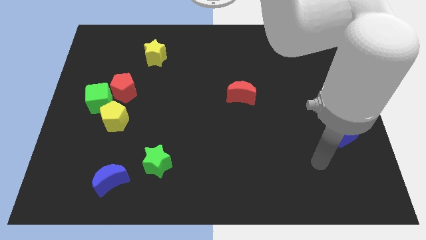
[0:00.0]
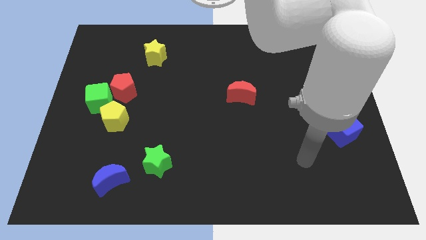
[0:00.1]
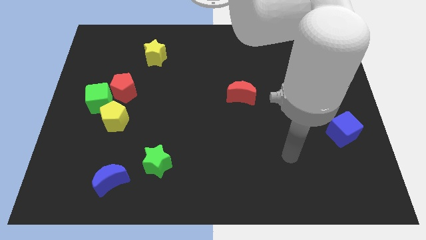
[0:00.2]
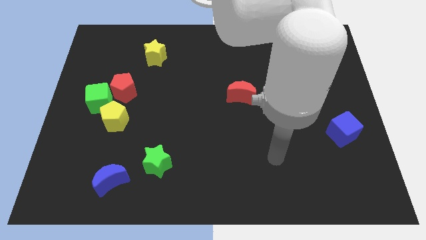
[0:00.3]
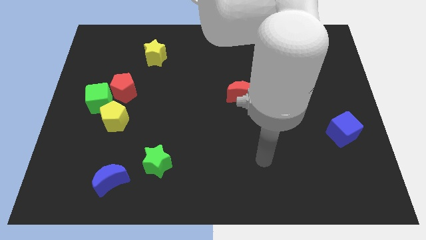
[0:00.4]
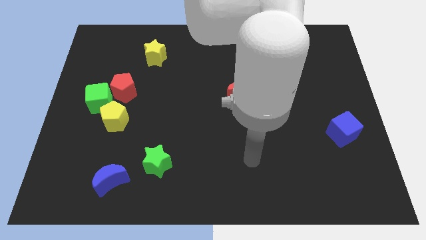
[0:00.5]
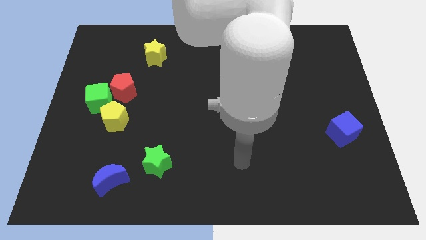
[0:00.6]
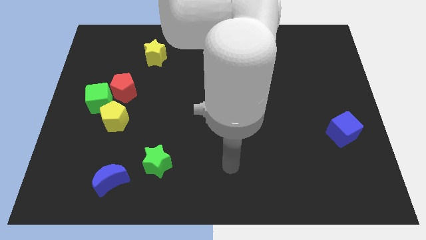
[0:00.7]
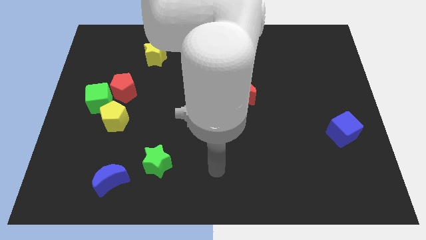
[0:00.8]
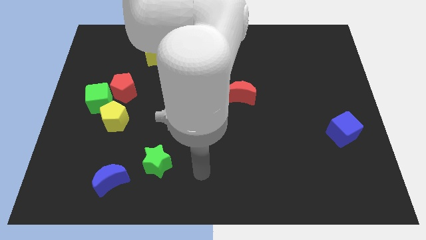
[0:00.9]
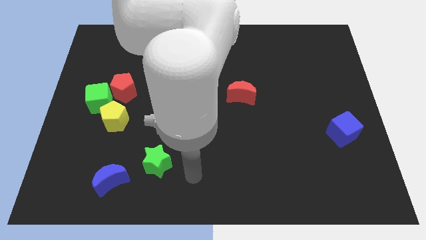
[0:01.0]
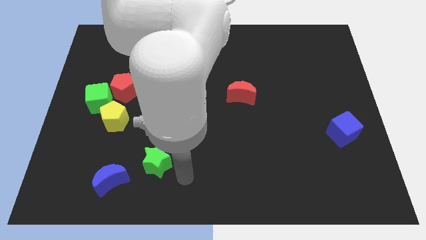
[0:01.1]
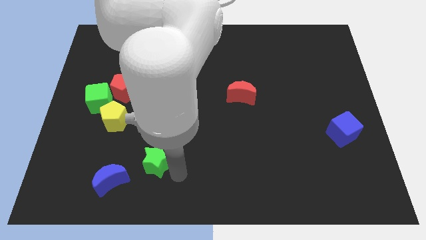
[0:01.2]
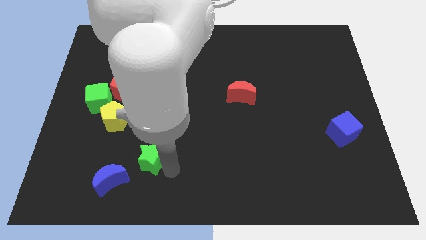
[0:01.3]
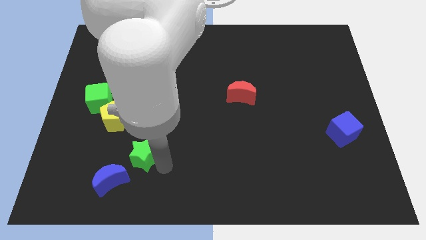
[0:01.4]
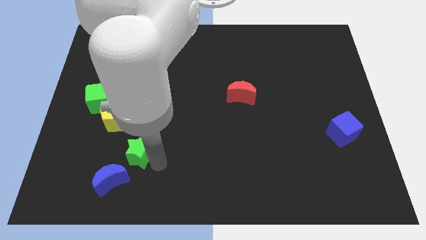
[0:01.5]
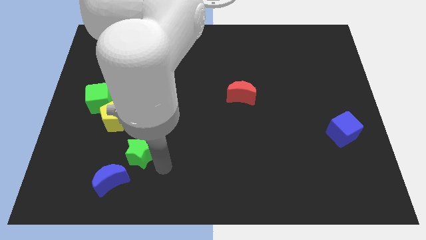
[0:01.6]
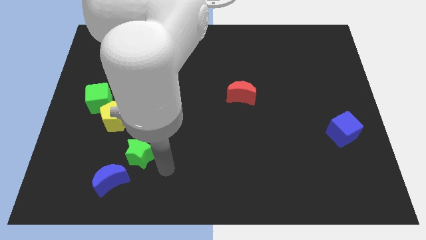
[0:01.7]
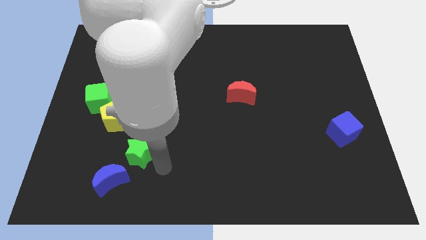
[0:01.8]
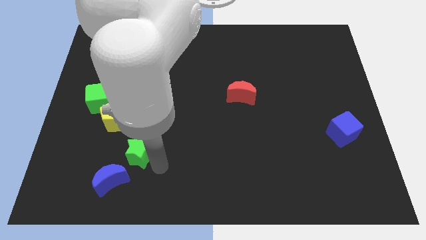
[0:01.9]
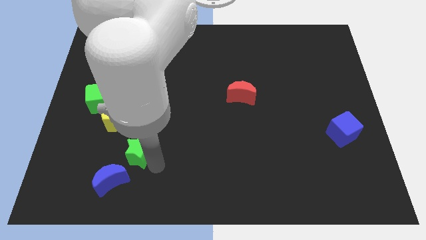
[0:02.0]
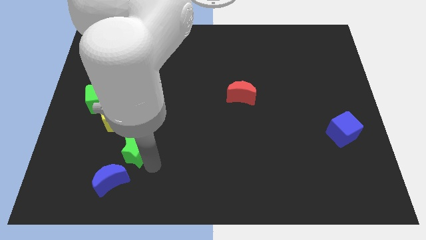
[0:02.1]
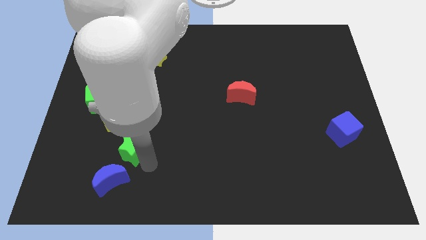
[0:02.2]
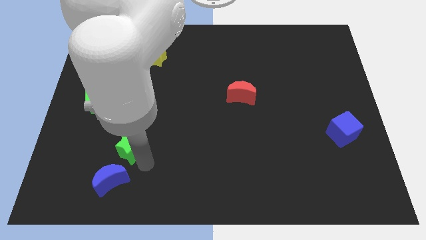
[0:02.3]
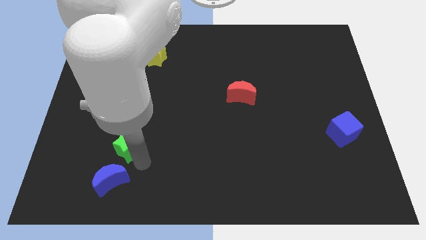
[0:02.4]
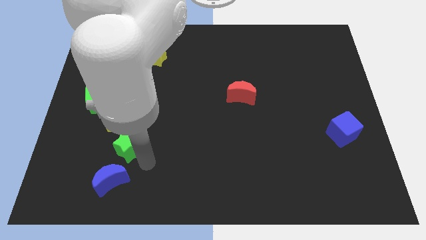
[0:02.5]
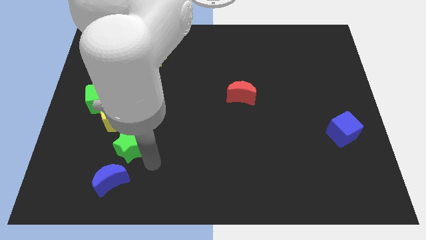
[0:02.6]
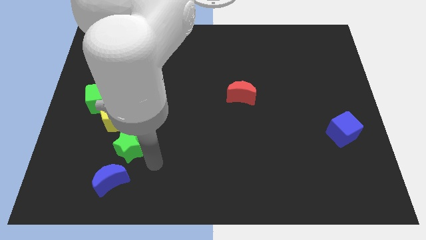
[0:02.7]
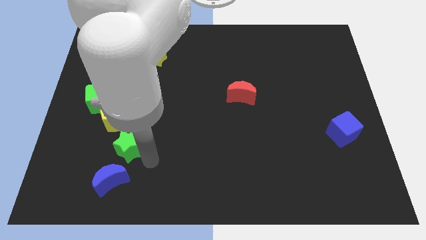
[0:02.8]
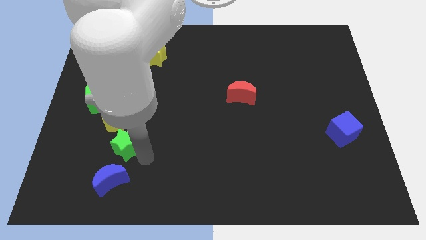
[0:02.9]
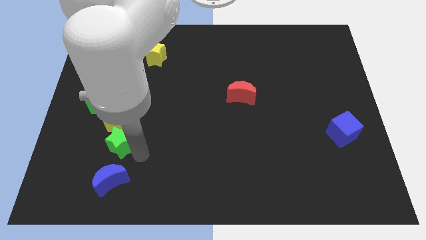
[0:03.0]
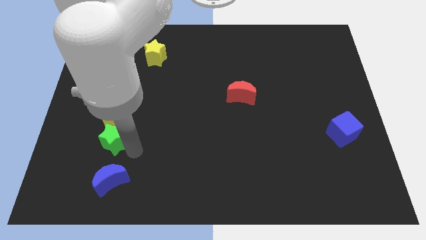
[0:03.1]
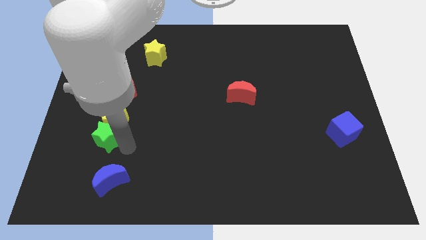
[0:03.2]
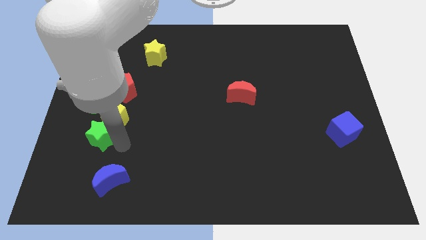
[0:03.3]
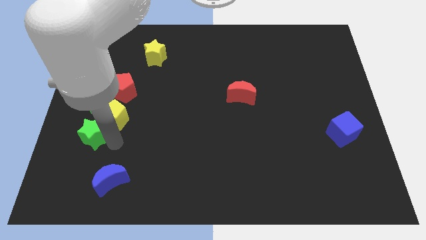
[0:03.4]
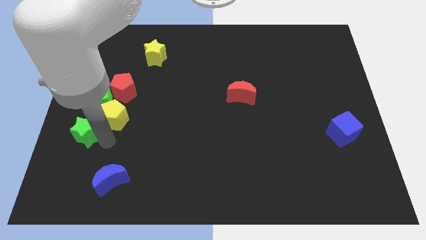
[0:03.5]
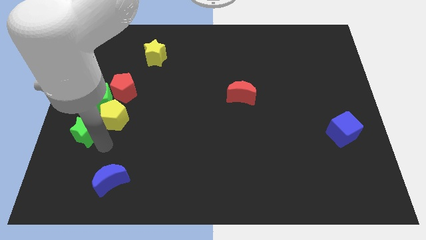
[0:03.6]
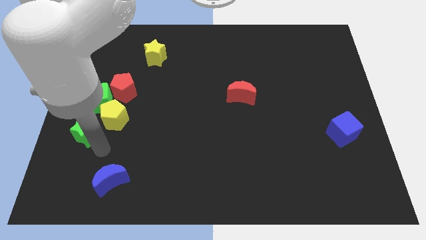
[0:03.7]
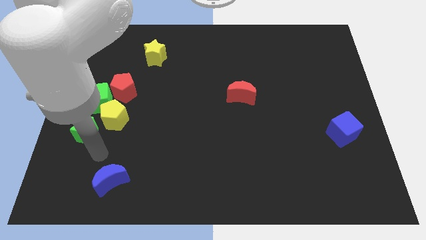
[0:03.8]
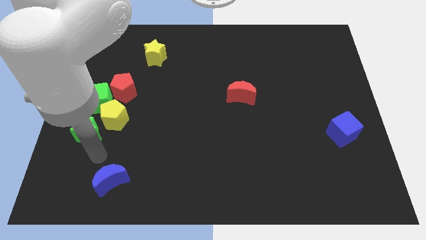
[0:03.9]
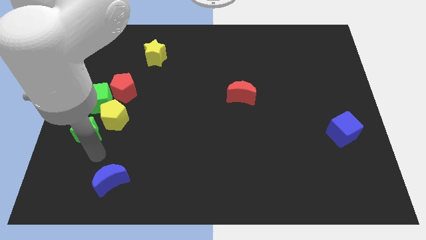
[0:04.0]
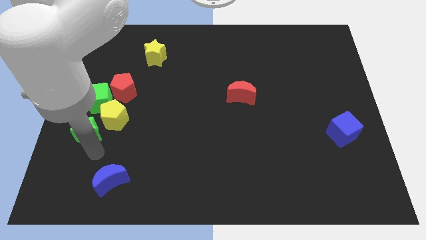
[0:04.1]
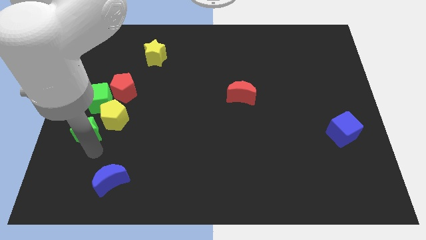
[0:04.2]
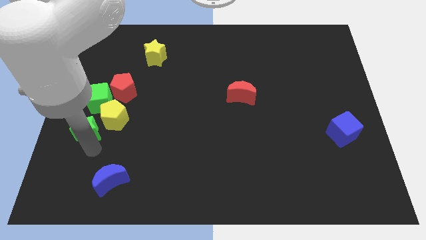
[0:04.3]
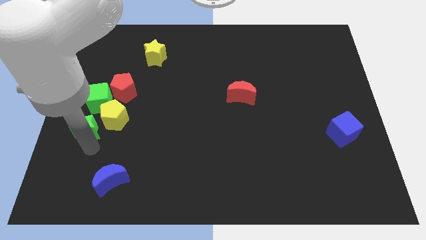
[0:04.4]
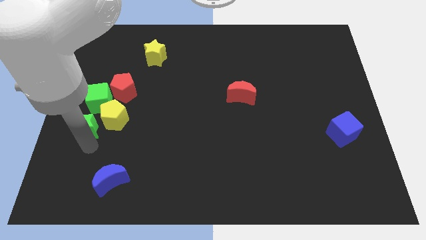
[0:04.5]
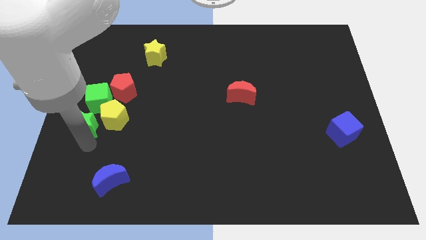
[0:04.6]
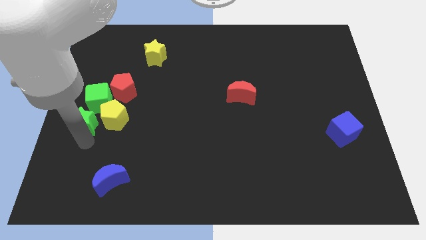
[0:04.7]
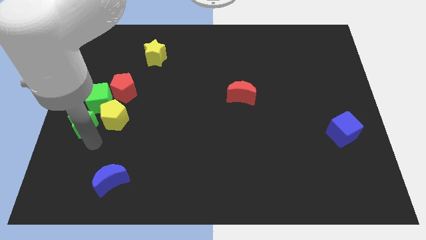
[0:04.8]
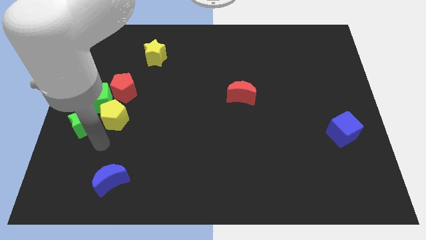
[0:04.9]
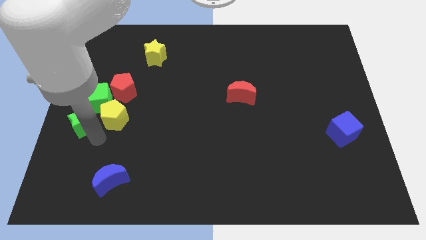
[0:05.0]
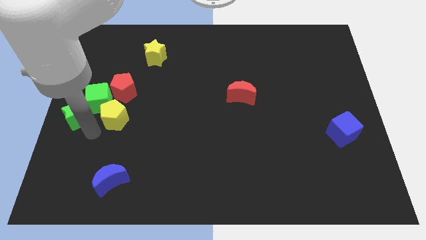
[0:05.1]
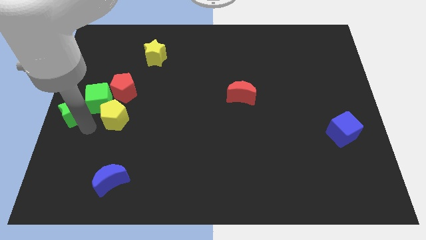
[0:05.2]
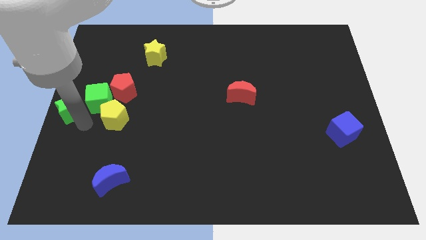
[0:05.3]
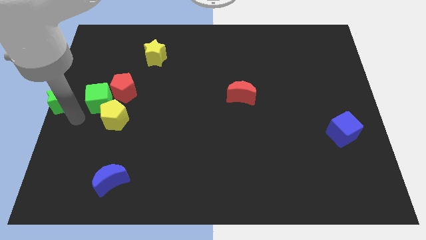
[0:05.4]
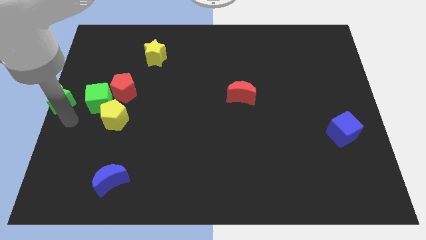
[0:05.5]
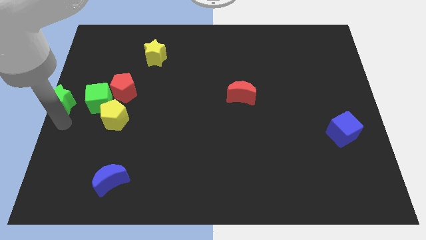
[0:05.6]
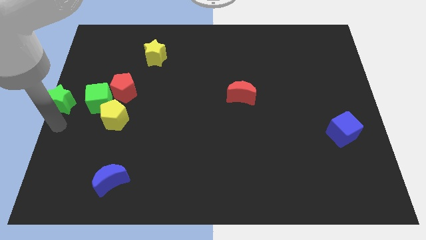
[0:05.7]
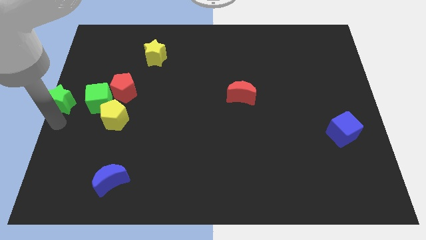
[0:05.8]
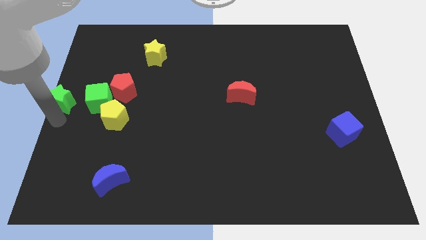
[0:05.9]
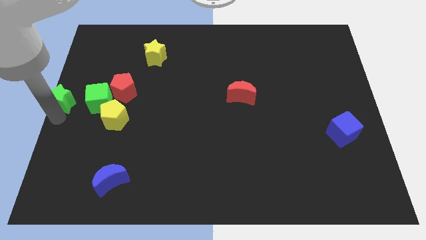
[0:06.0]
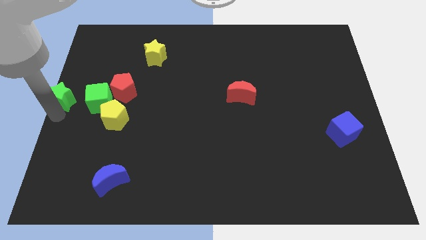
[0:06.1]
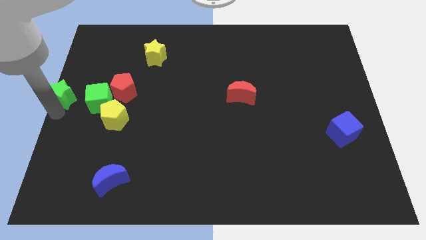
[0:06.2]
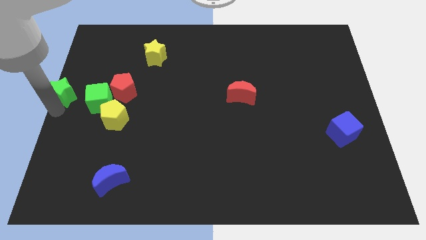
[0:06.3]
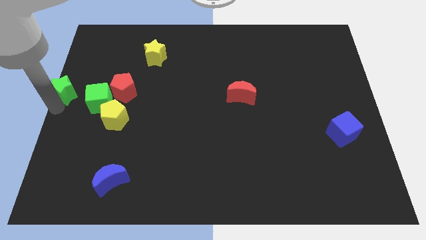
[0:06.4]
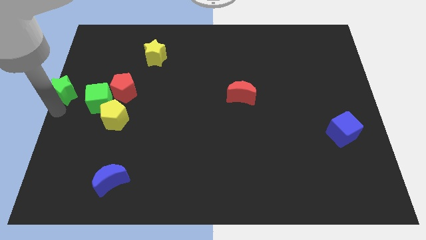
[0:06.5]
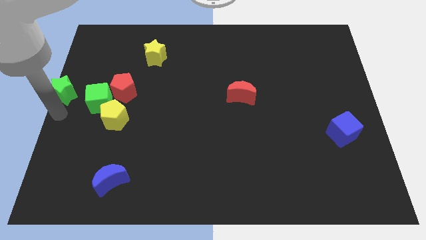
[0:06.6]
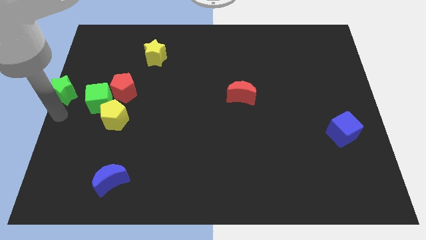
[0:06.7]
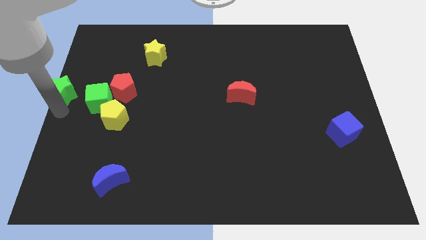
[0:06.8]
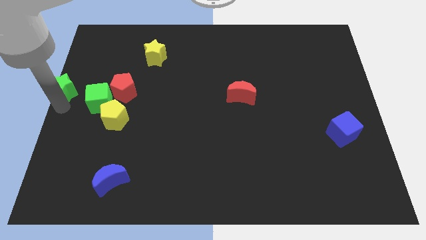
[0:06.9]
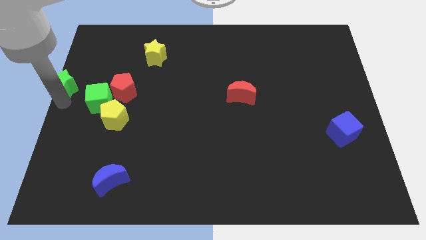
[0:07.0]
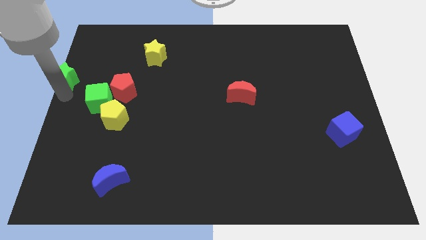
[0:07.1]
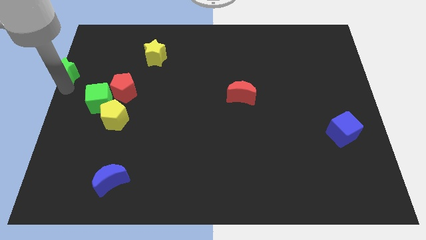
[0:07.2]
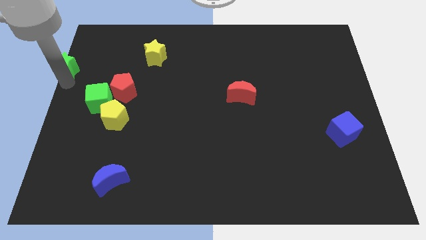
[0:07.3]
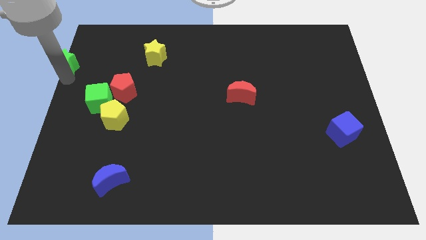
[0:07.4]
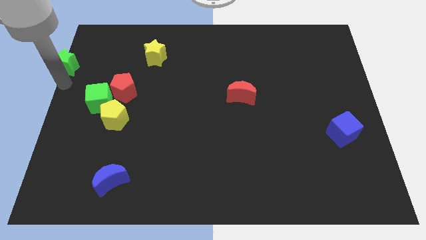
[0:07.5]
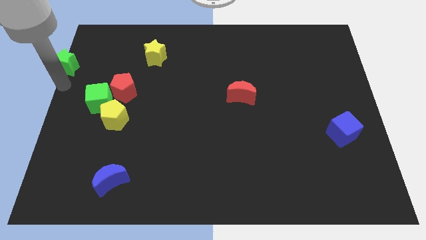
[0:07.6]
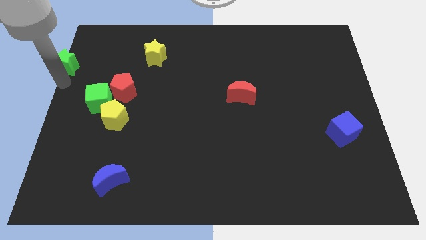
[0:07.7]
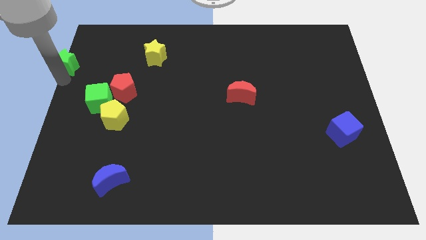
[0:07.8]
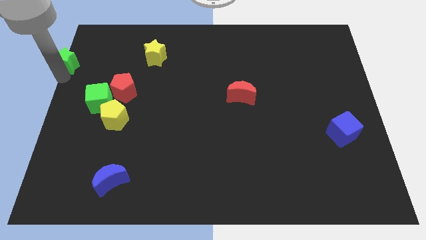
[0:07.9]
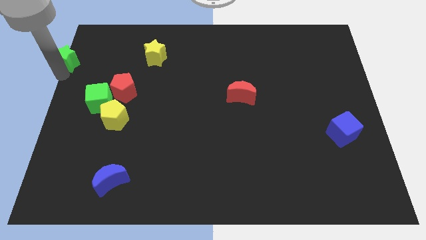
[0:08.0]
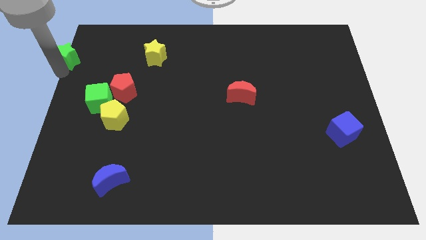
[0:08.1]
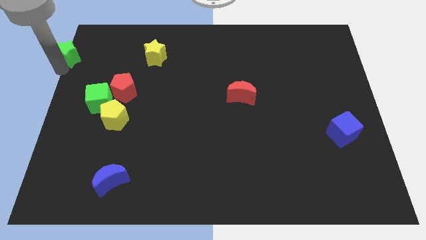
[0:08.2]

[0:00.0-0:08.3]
push the green star to the top left of the board
